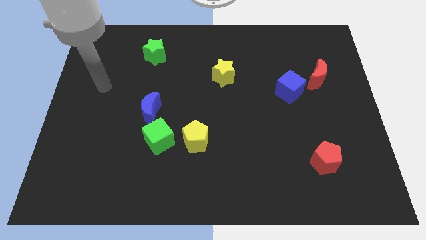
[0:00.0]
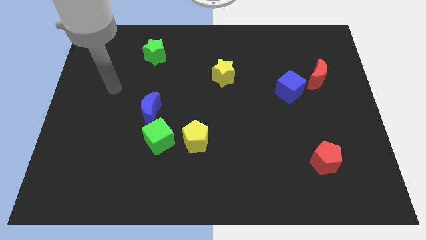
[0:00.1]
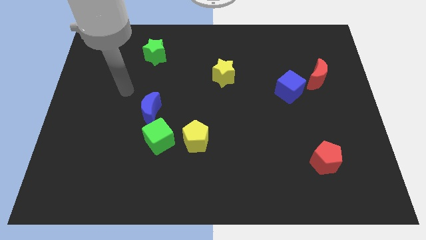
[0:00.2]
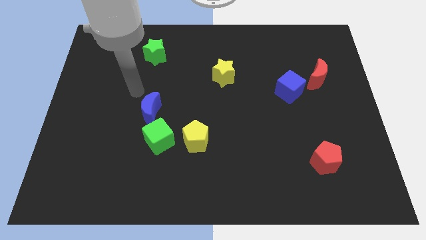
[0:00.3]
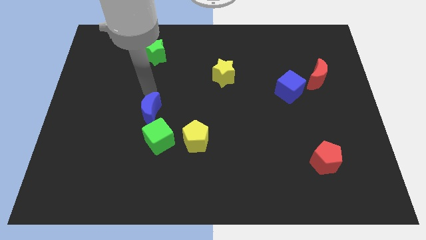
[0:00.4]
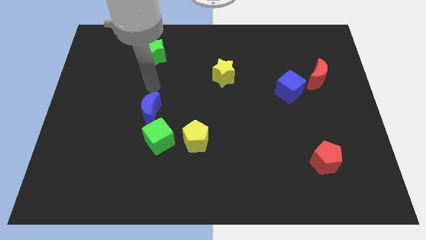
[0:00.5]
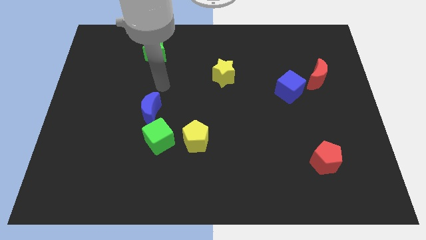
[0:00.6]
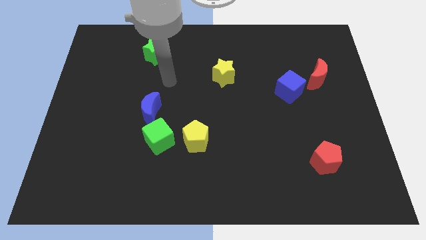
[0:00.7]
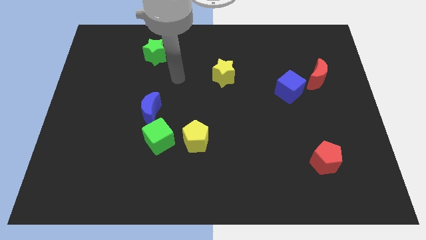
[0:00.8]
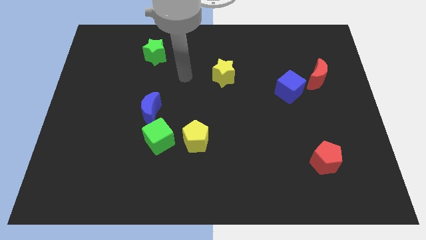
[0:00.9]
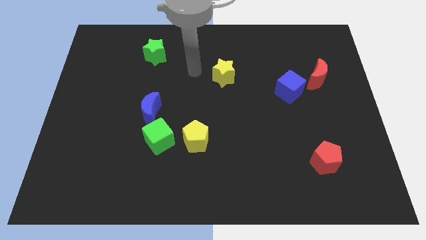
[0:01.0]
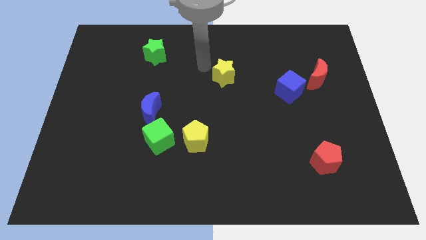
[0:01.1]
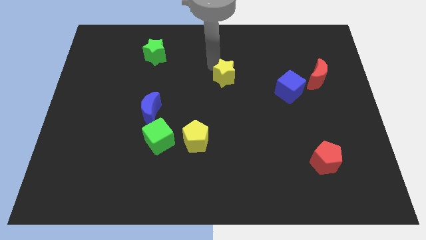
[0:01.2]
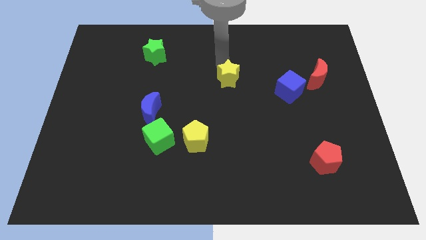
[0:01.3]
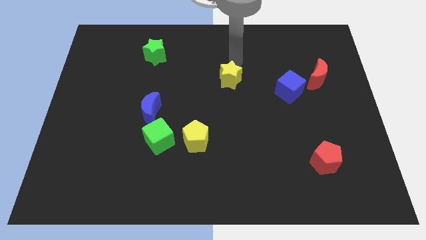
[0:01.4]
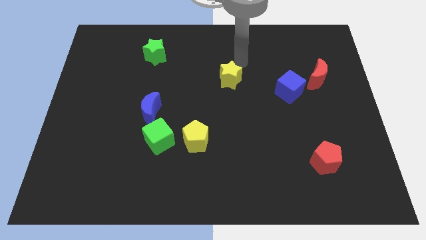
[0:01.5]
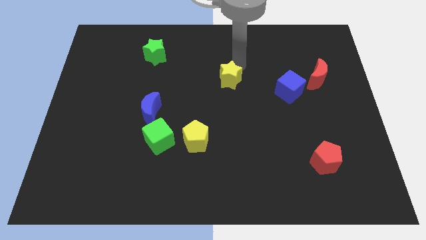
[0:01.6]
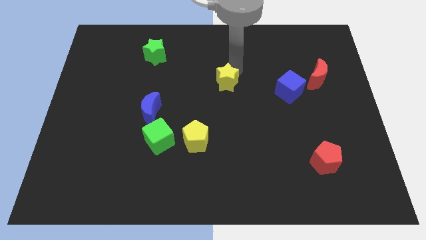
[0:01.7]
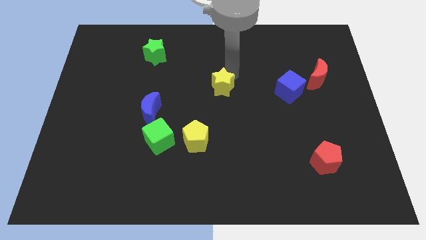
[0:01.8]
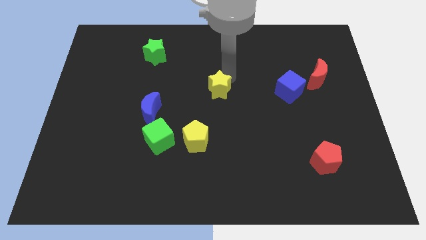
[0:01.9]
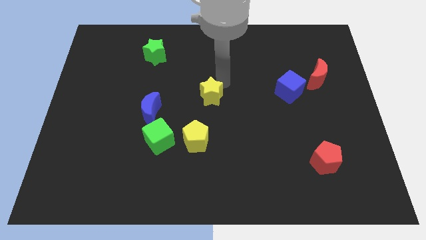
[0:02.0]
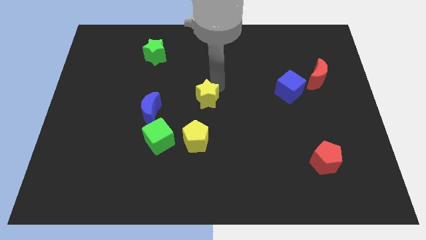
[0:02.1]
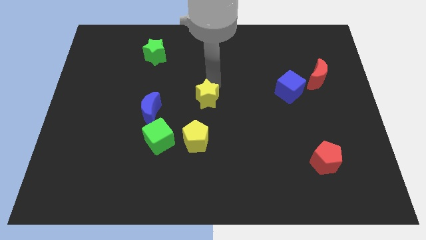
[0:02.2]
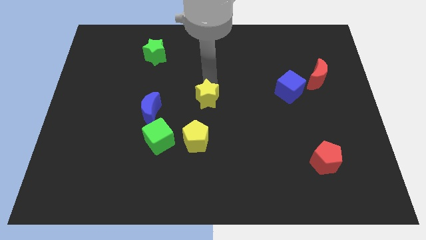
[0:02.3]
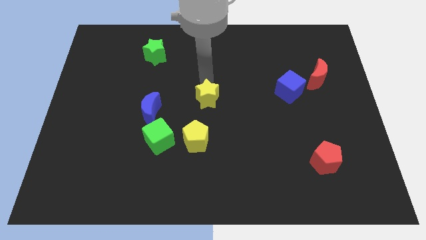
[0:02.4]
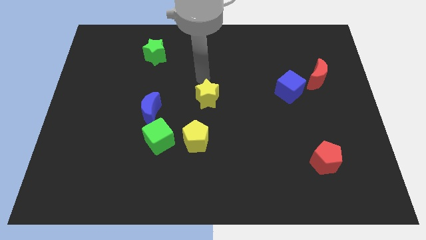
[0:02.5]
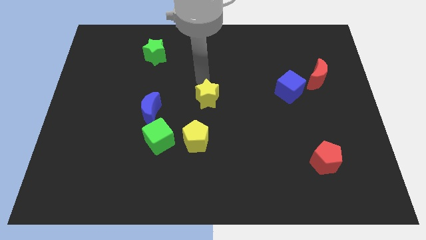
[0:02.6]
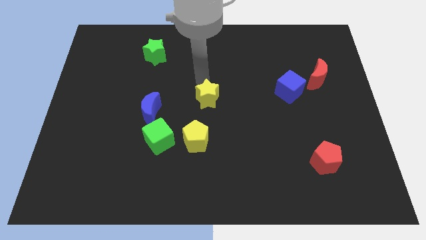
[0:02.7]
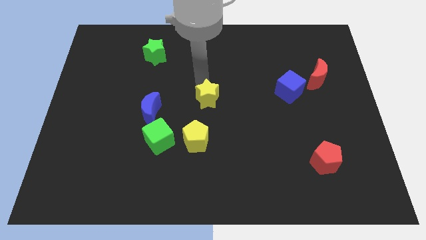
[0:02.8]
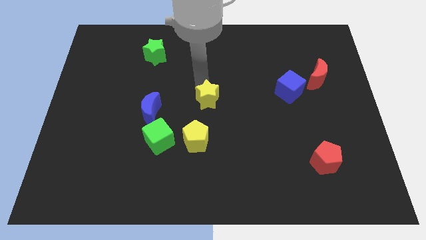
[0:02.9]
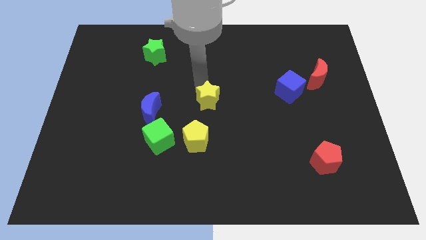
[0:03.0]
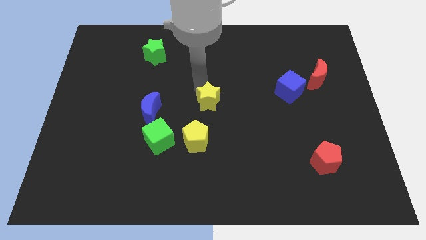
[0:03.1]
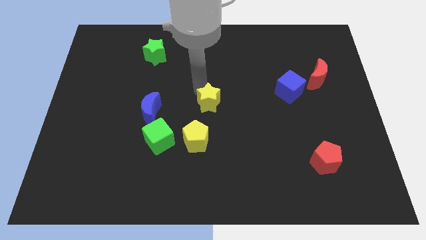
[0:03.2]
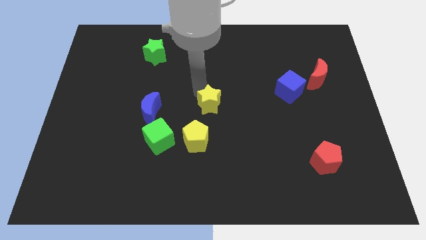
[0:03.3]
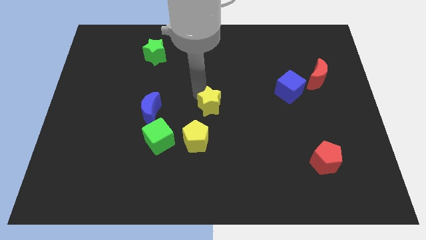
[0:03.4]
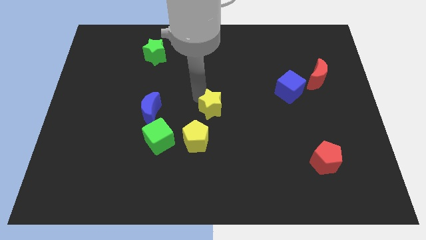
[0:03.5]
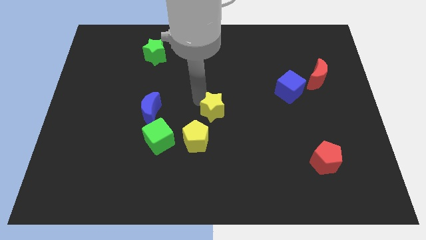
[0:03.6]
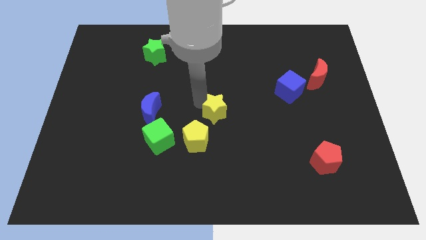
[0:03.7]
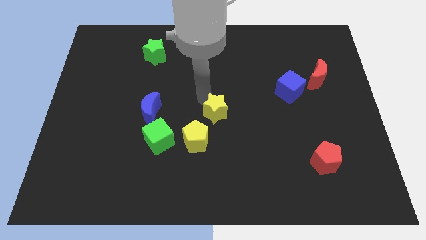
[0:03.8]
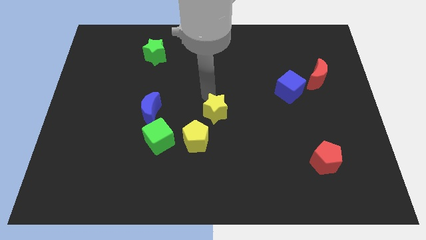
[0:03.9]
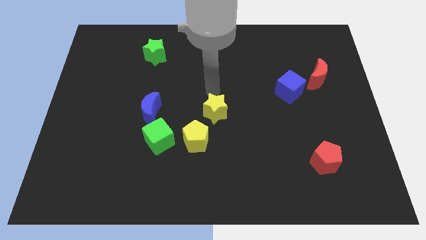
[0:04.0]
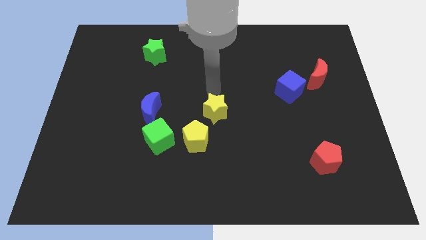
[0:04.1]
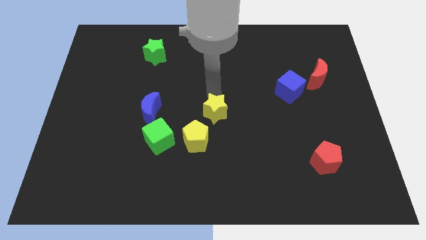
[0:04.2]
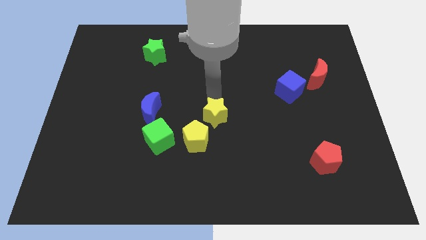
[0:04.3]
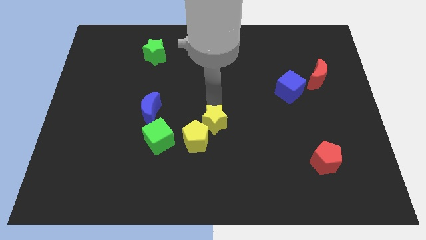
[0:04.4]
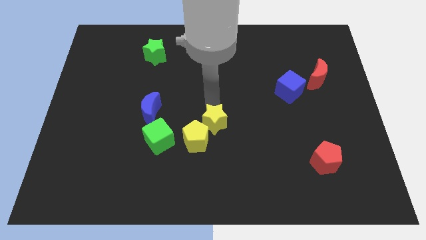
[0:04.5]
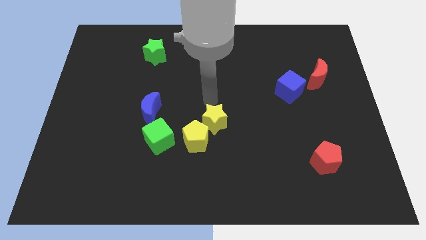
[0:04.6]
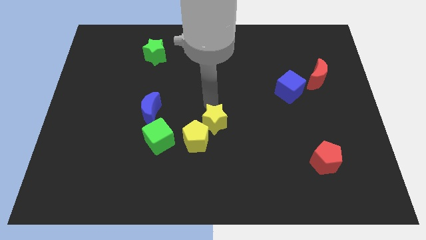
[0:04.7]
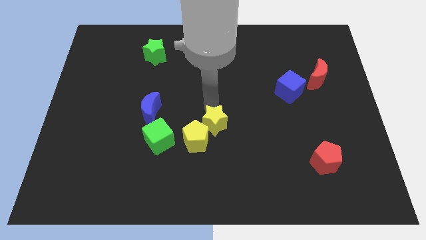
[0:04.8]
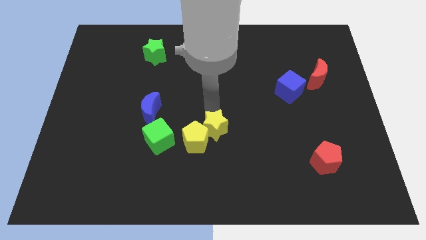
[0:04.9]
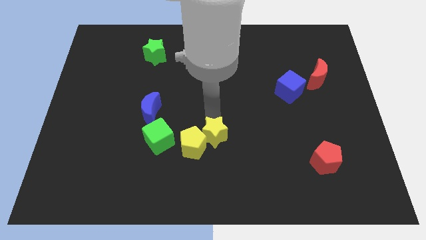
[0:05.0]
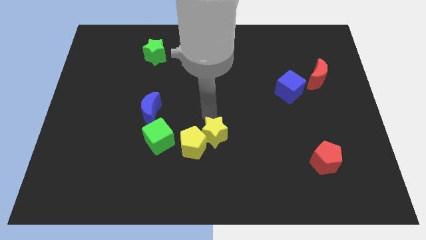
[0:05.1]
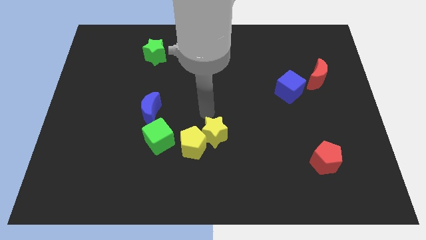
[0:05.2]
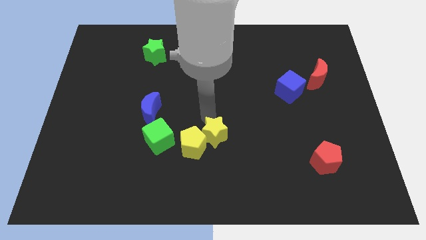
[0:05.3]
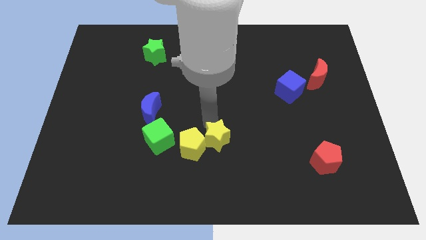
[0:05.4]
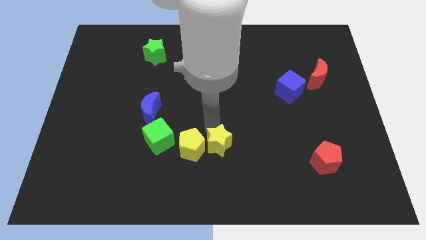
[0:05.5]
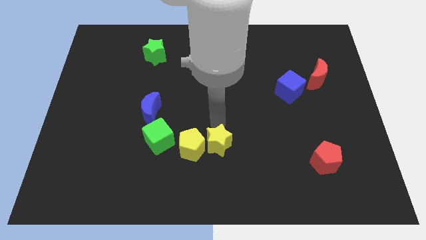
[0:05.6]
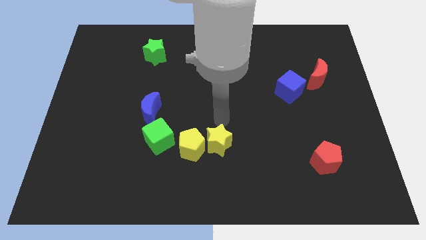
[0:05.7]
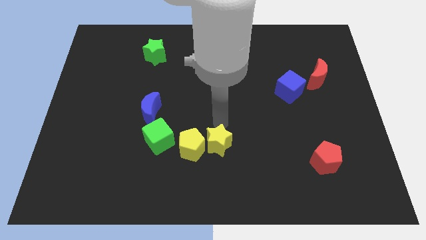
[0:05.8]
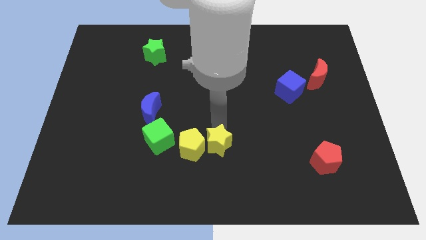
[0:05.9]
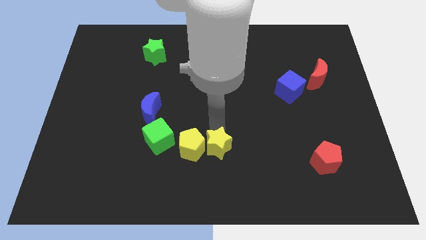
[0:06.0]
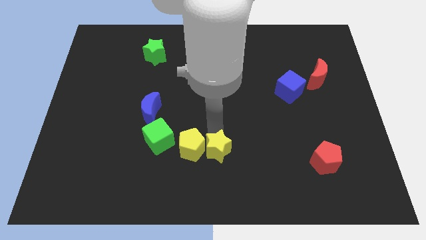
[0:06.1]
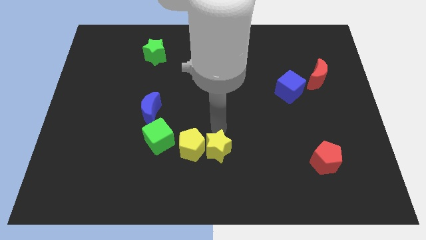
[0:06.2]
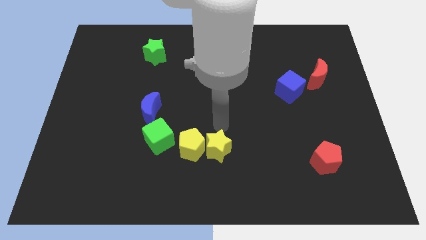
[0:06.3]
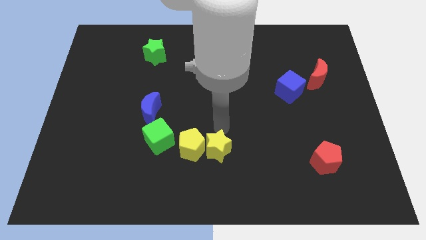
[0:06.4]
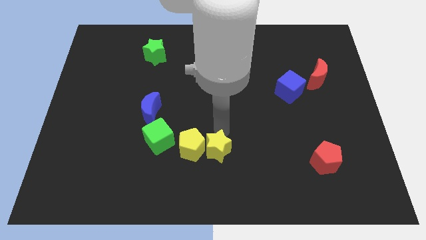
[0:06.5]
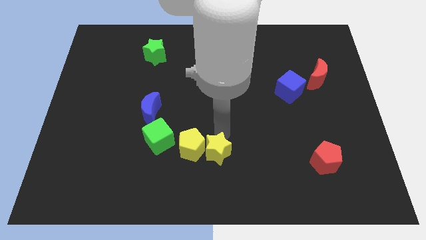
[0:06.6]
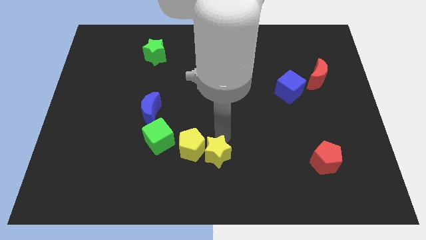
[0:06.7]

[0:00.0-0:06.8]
push the yellow star to the bottom side
